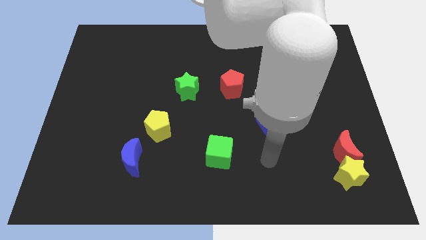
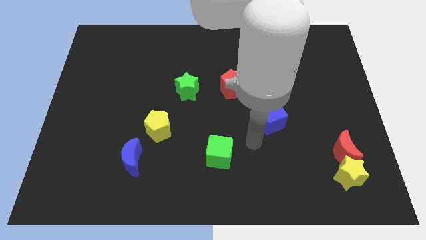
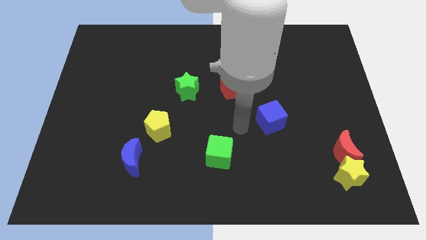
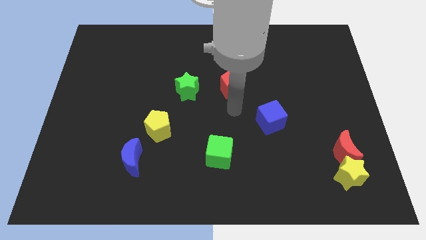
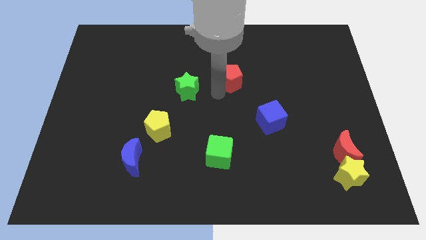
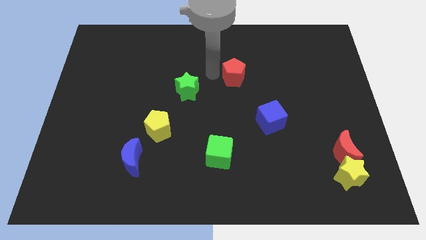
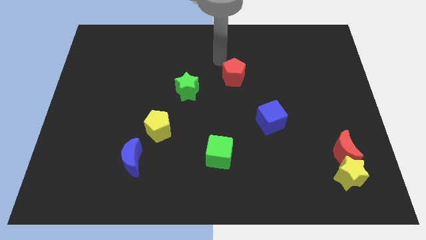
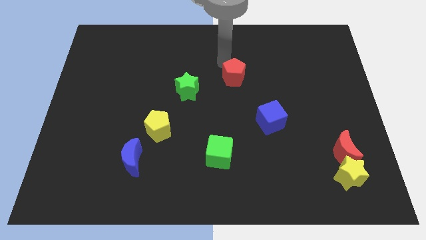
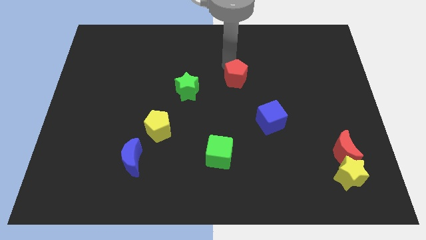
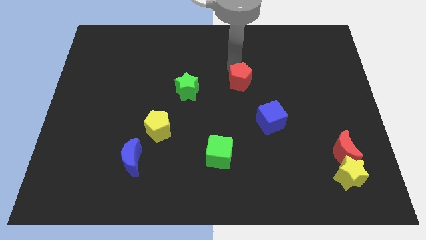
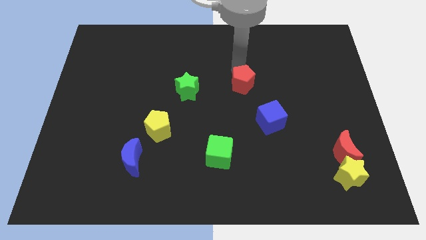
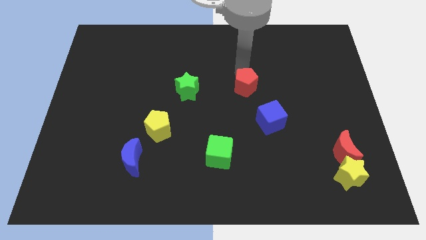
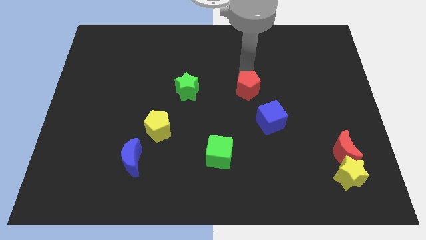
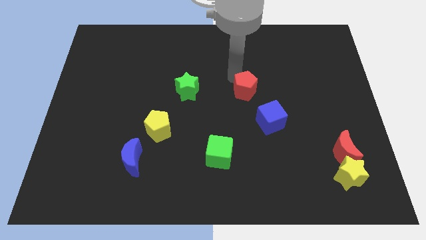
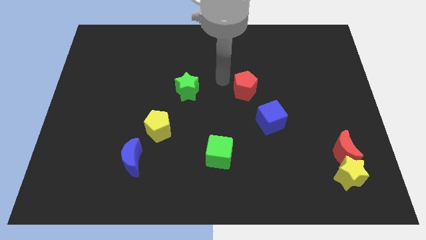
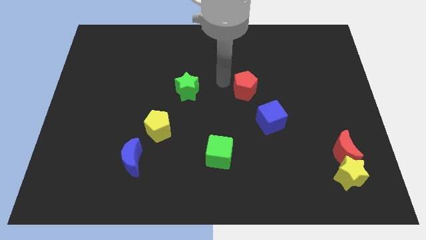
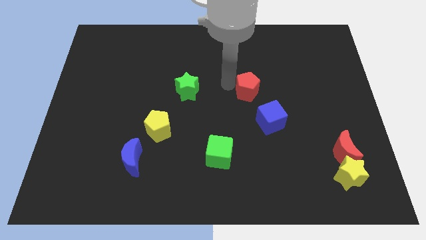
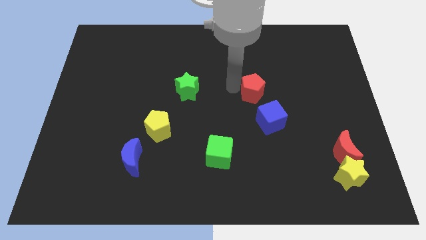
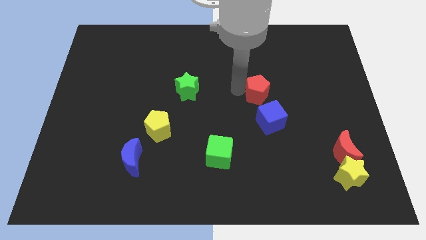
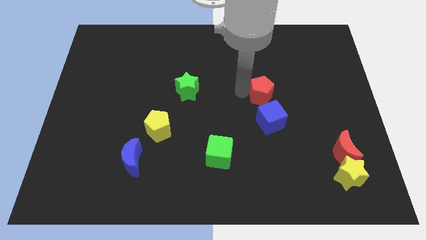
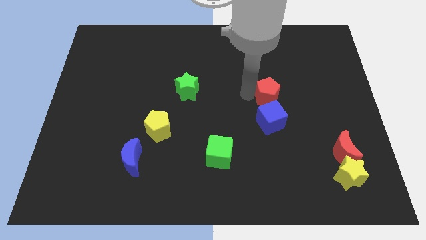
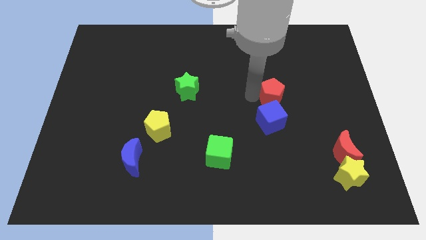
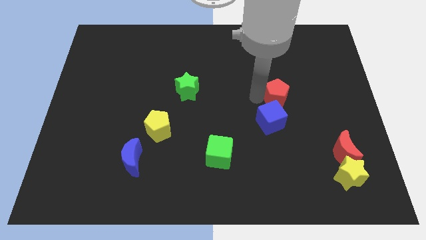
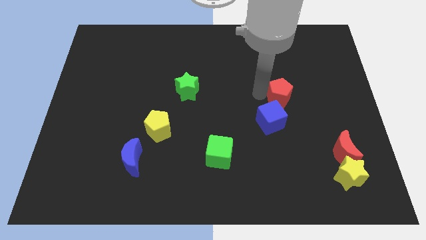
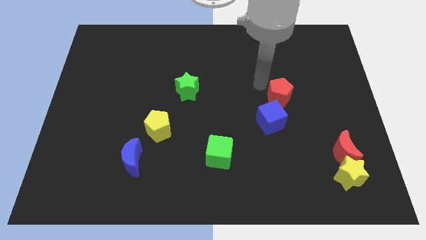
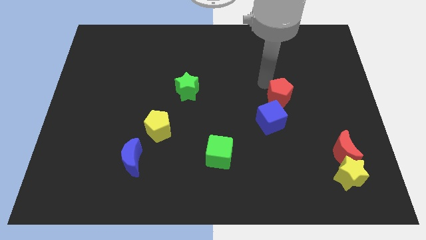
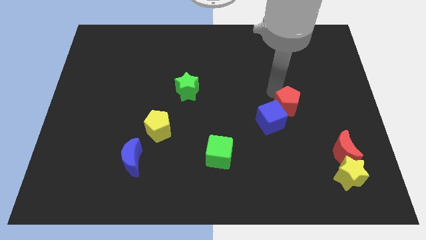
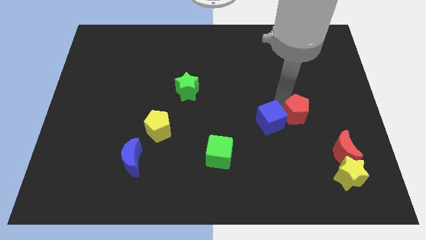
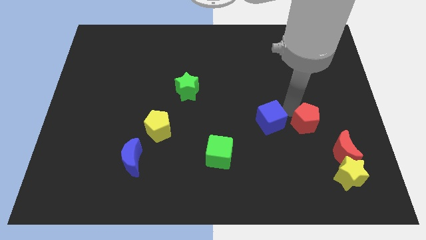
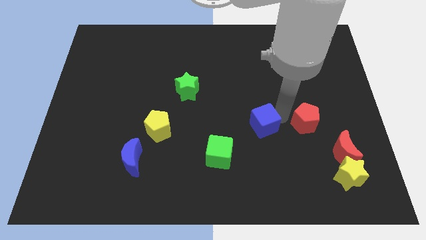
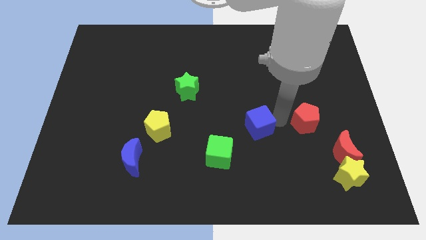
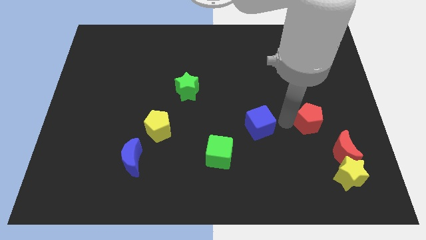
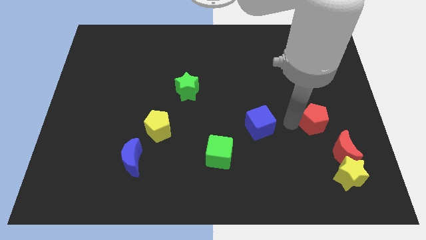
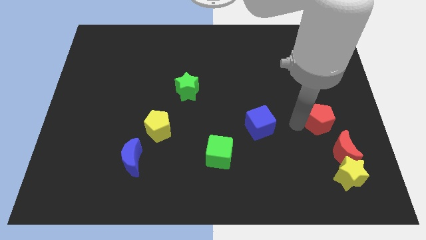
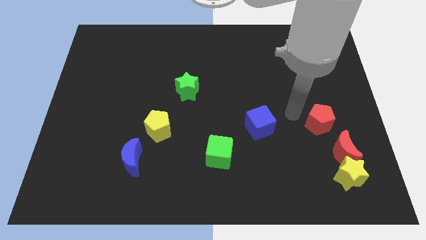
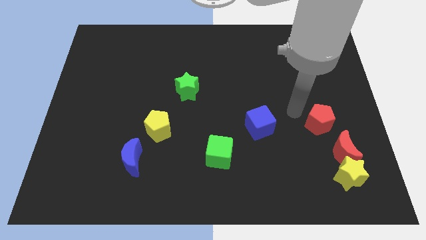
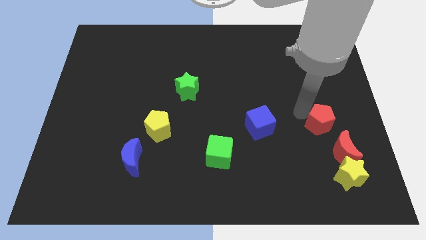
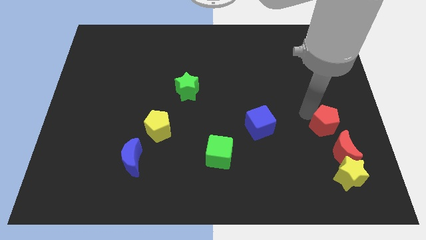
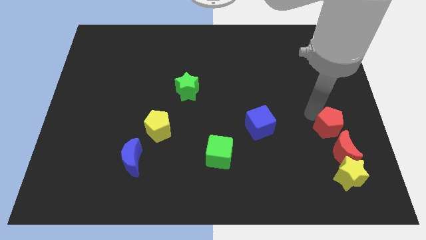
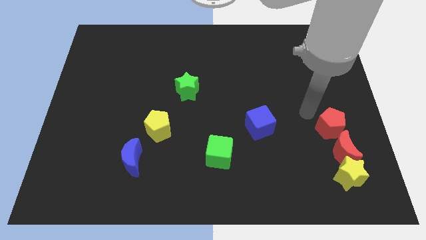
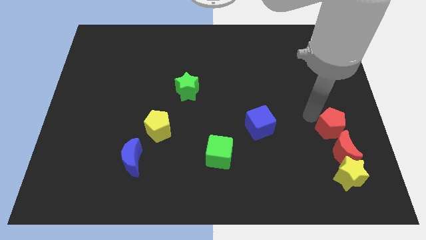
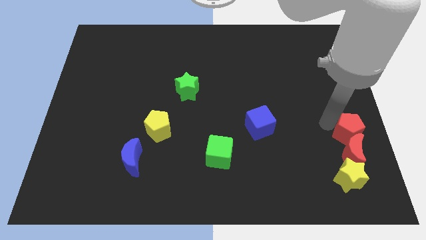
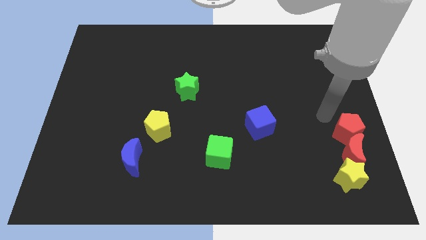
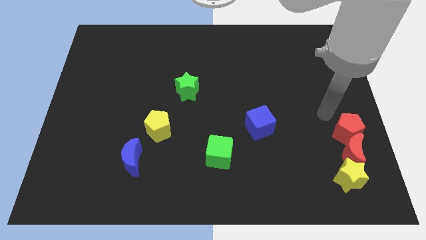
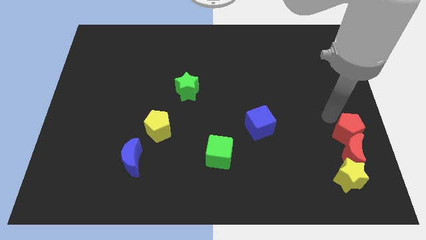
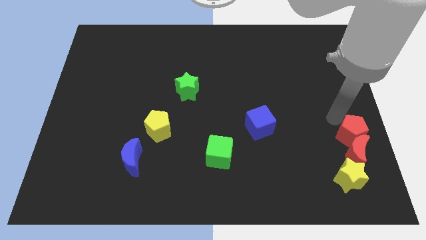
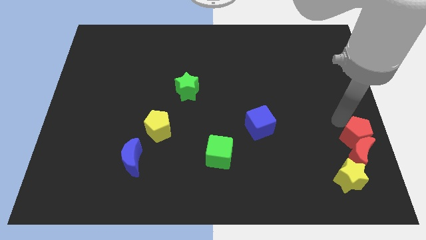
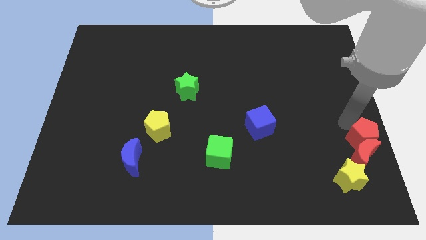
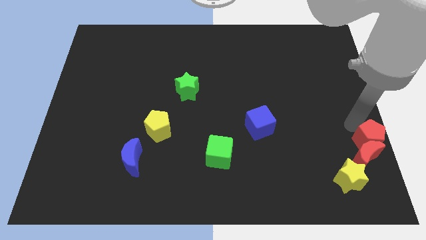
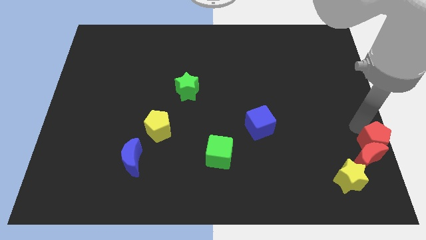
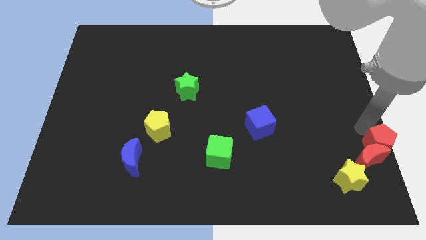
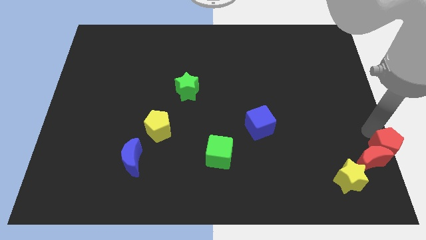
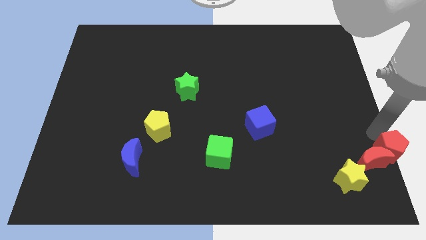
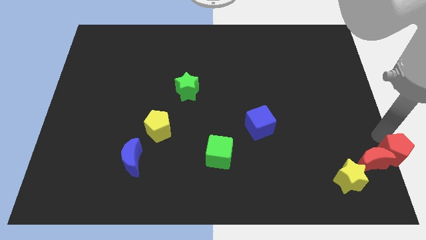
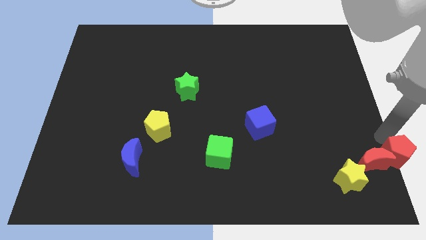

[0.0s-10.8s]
put the red pentagon to the bottom right corner

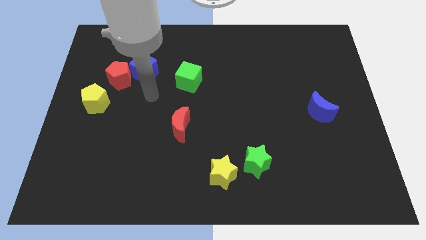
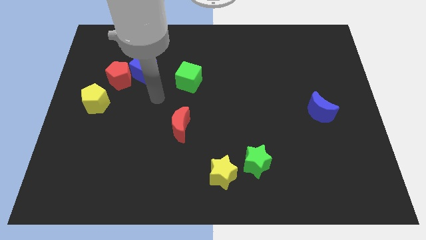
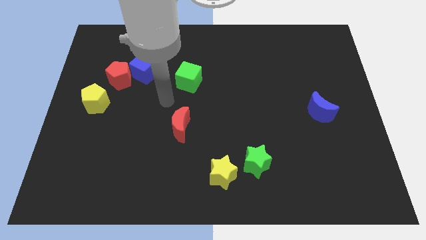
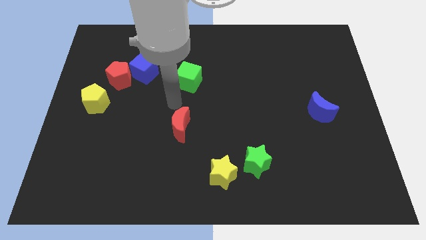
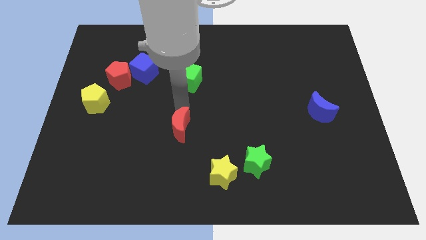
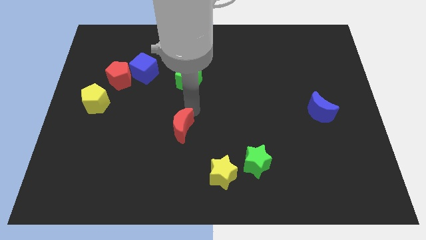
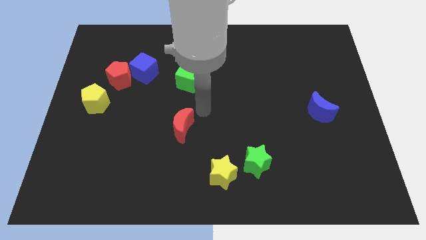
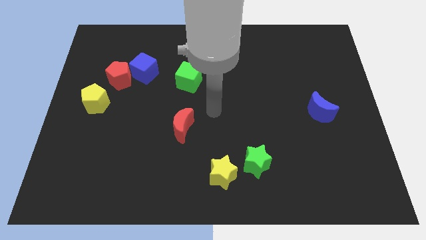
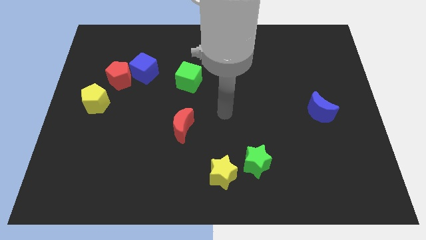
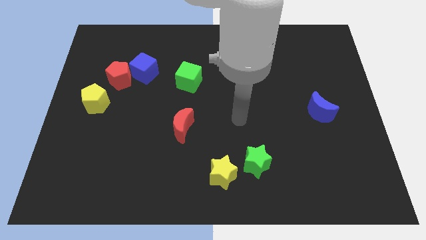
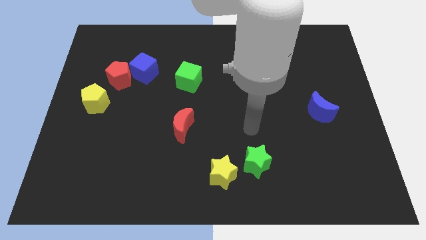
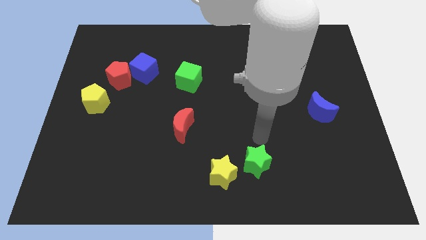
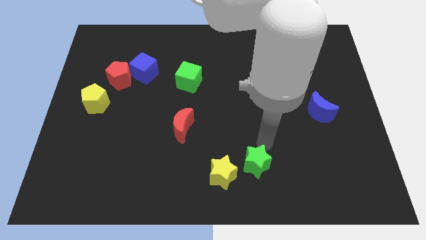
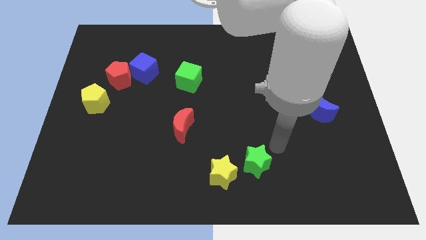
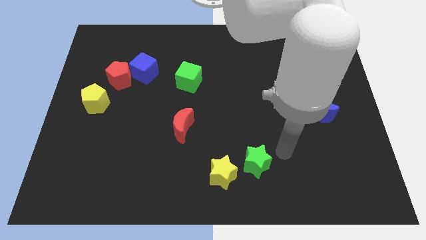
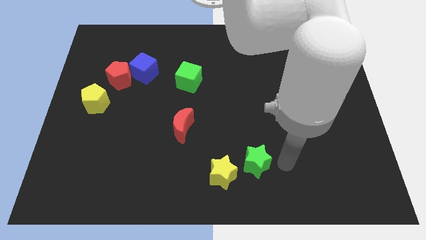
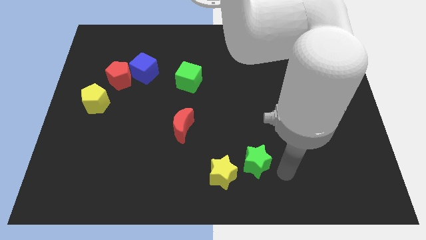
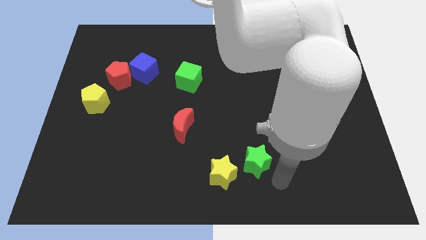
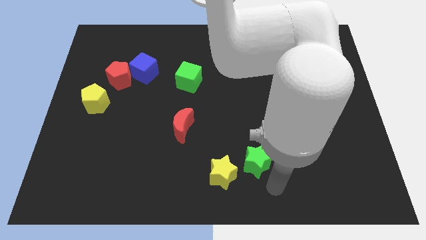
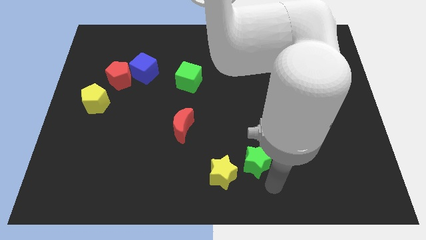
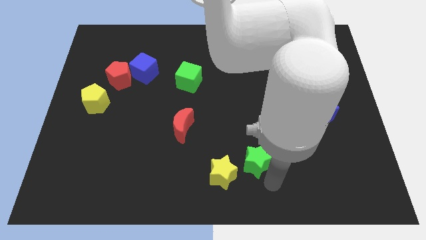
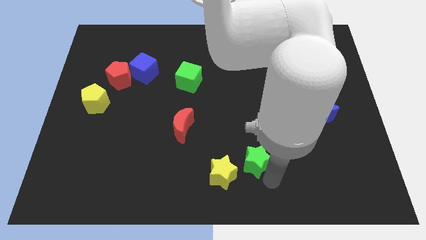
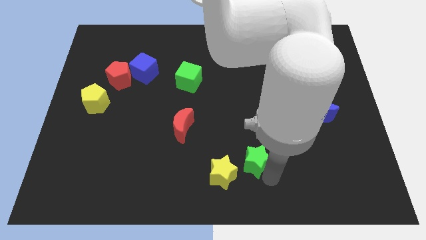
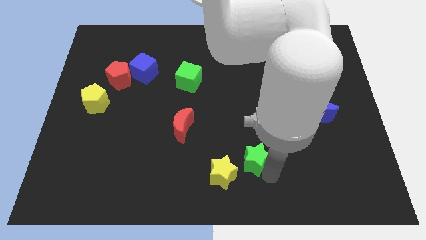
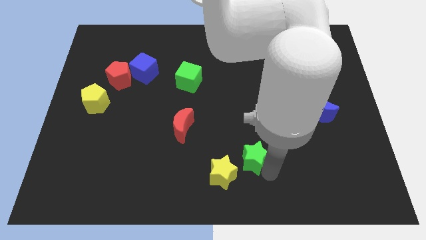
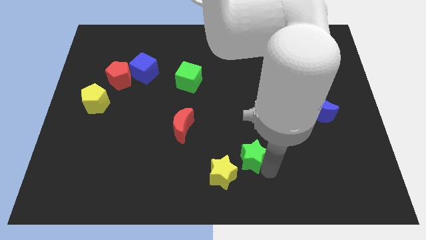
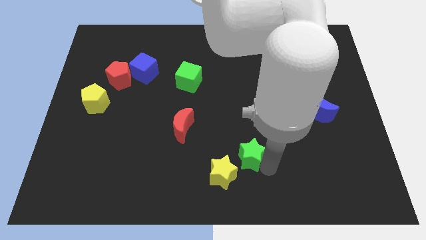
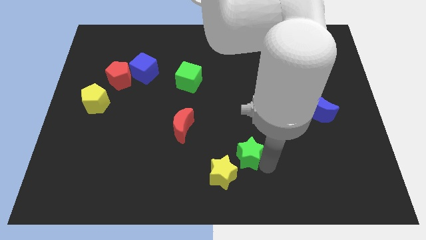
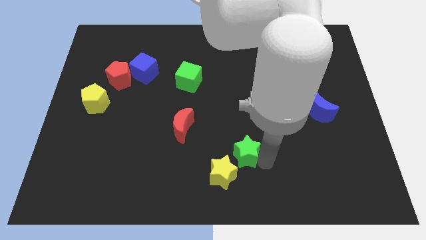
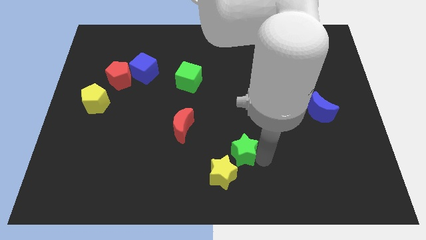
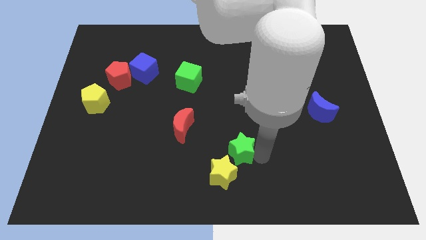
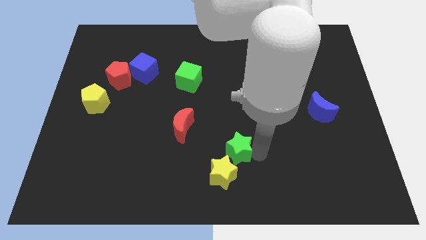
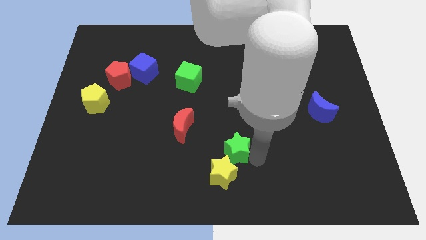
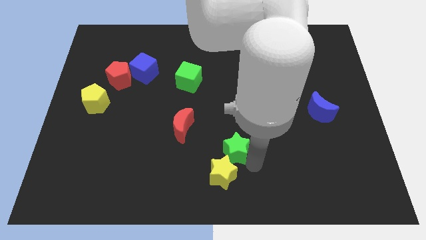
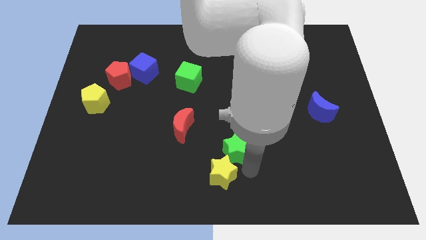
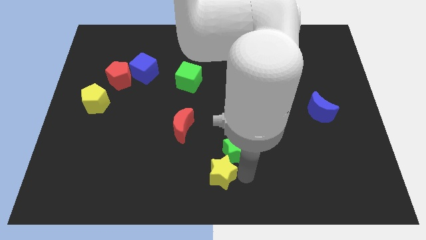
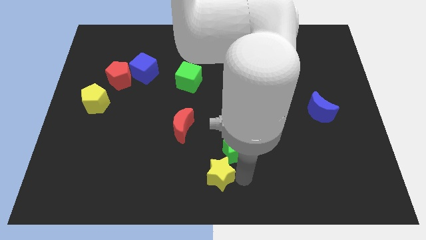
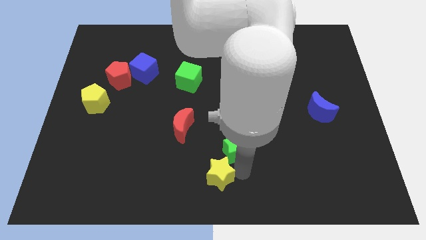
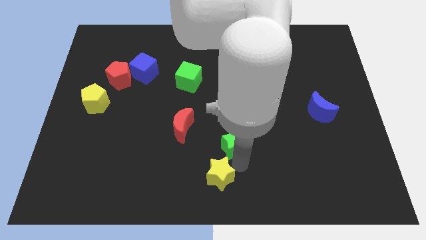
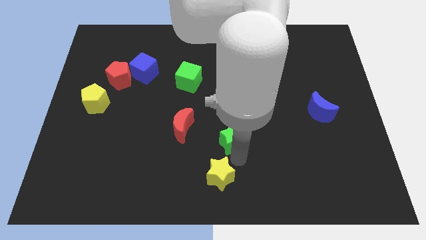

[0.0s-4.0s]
move the green star to the middle of the board
